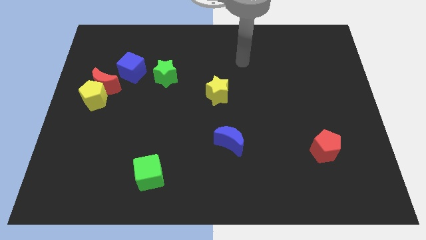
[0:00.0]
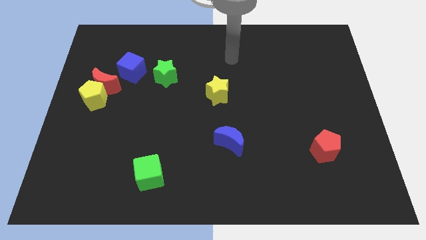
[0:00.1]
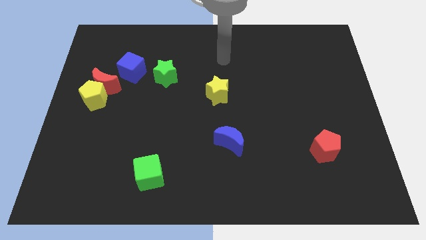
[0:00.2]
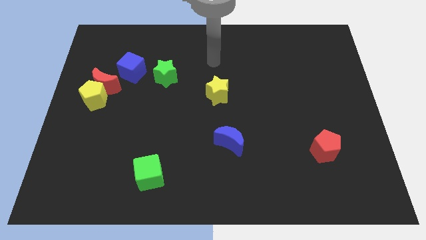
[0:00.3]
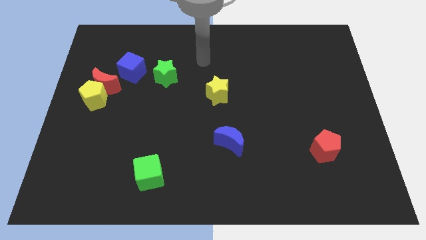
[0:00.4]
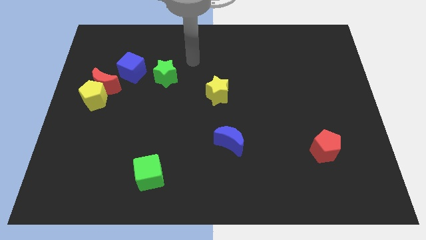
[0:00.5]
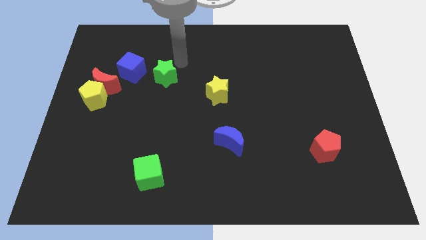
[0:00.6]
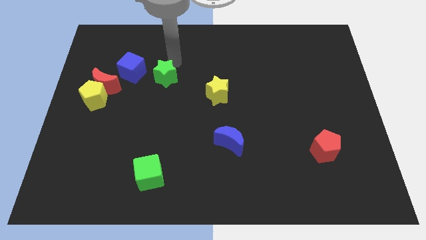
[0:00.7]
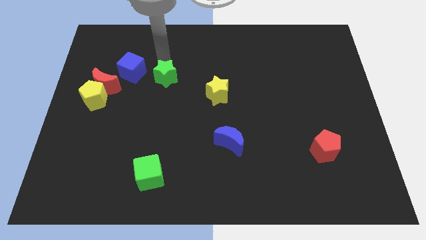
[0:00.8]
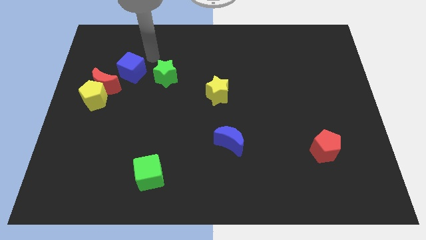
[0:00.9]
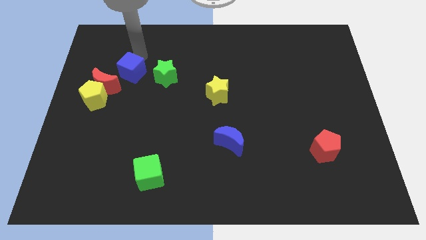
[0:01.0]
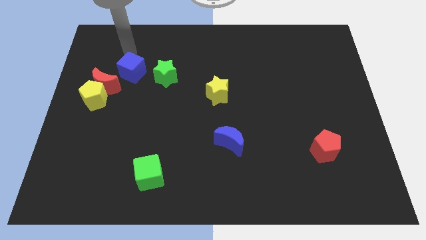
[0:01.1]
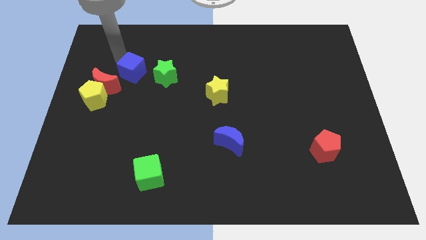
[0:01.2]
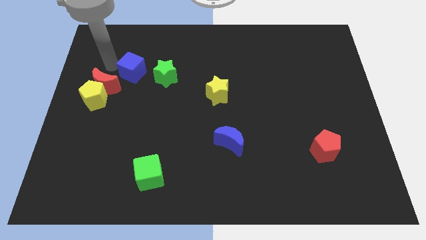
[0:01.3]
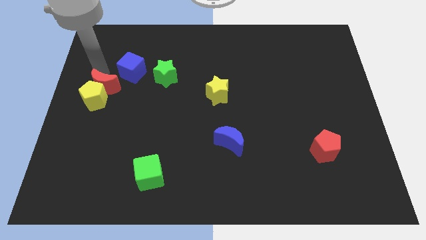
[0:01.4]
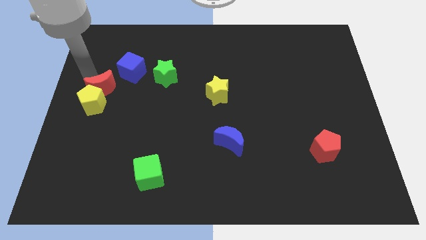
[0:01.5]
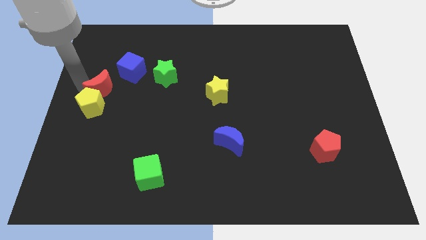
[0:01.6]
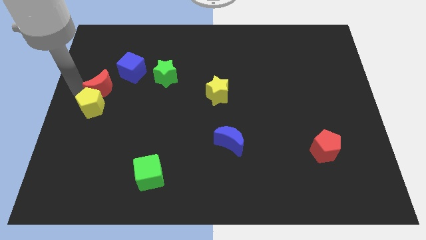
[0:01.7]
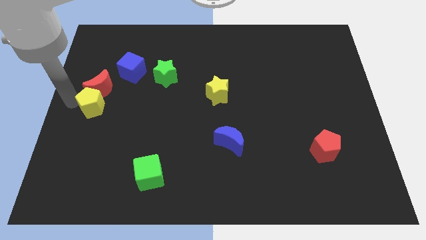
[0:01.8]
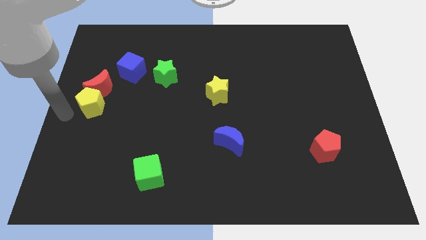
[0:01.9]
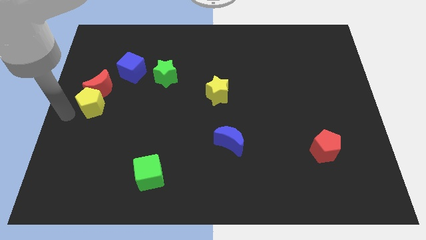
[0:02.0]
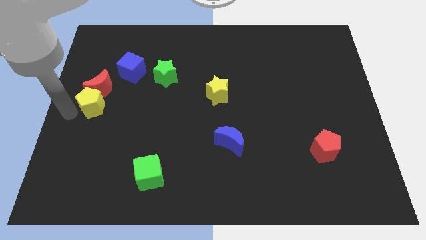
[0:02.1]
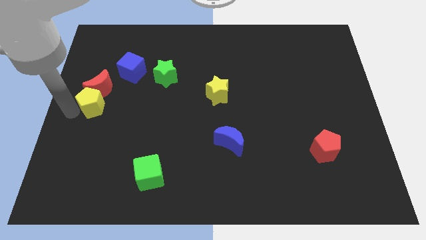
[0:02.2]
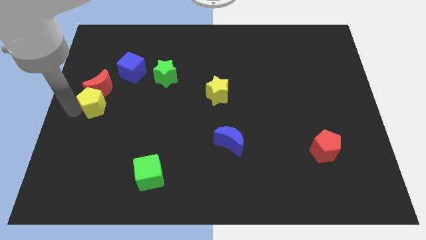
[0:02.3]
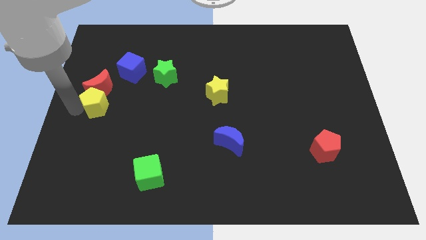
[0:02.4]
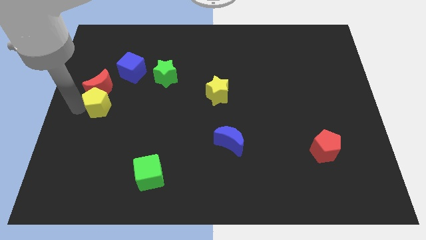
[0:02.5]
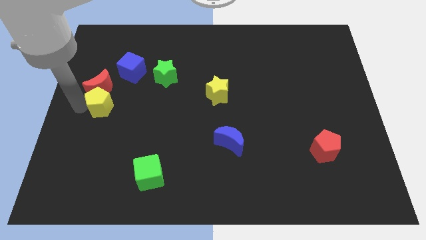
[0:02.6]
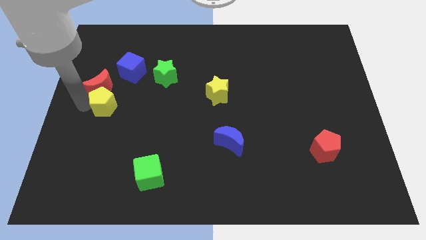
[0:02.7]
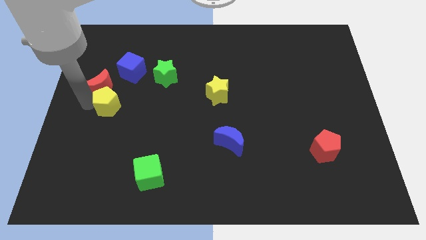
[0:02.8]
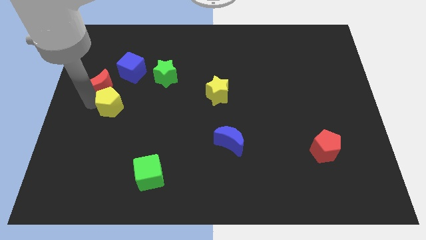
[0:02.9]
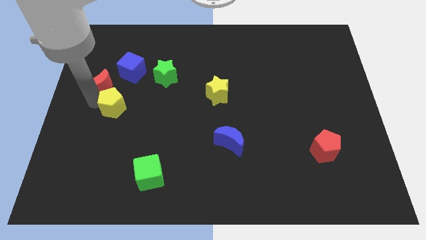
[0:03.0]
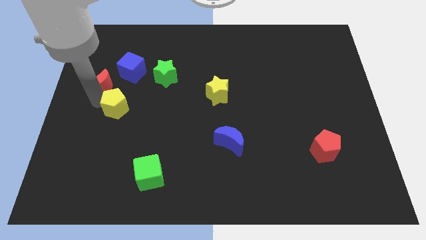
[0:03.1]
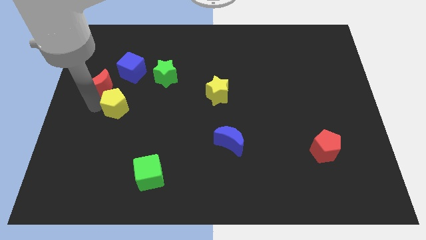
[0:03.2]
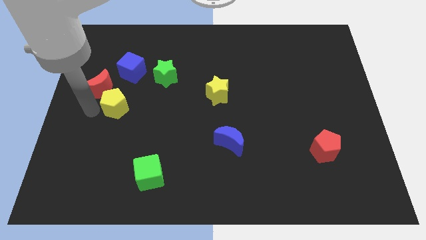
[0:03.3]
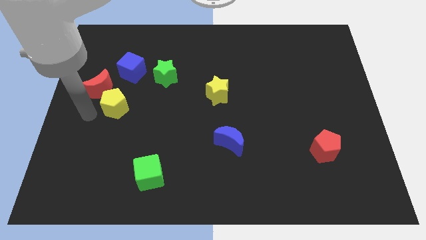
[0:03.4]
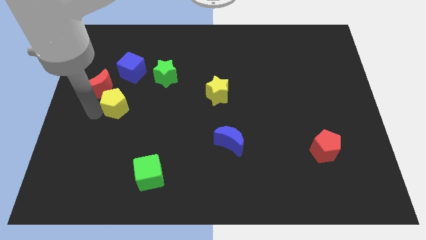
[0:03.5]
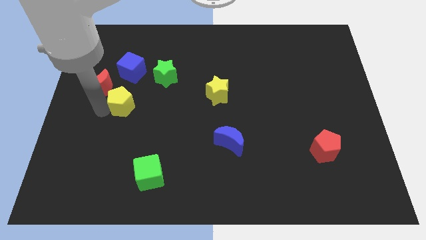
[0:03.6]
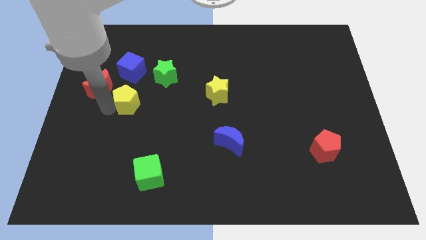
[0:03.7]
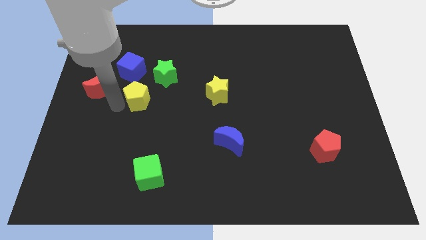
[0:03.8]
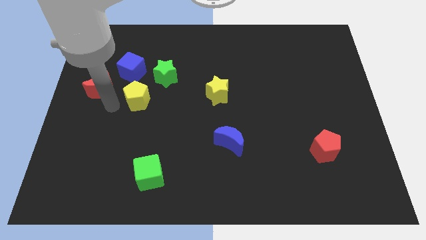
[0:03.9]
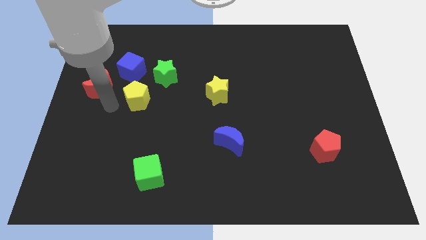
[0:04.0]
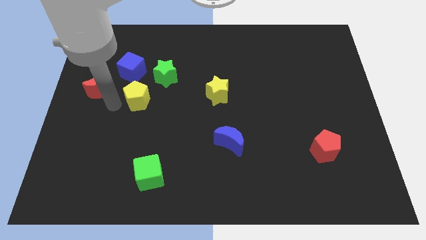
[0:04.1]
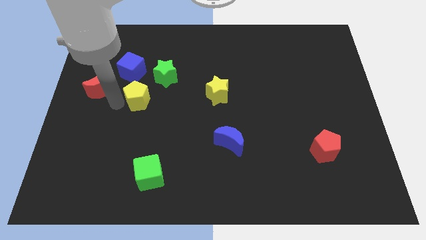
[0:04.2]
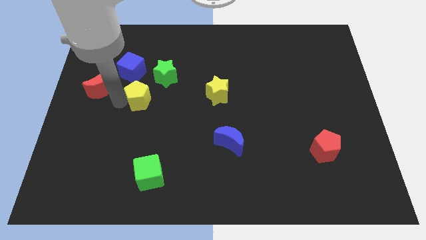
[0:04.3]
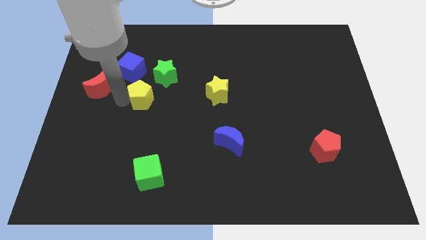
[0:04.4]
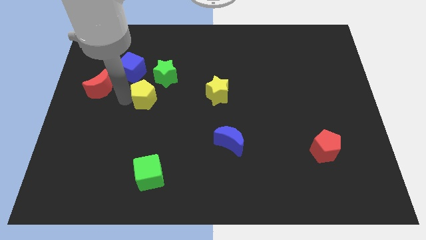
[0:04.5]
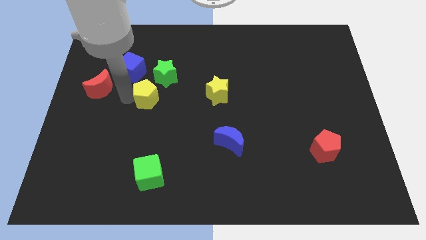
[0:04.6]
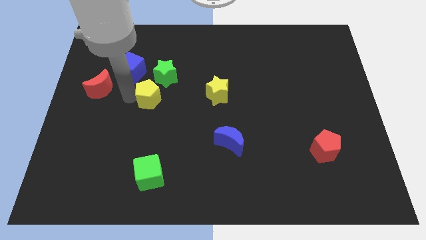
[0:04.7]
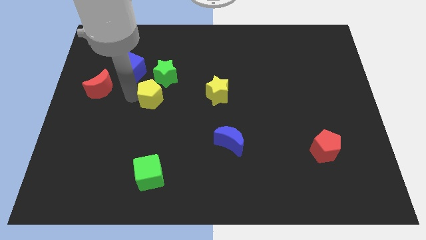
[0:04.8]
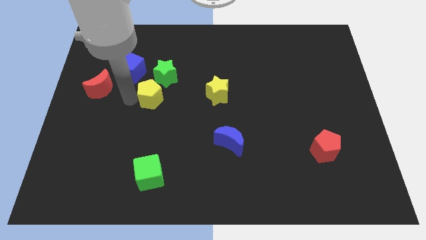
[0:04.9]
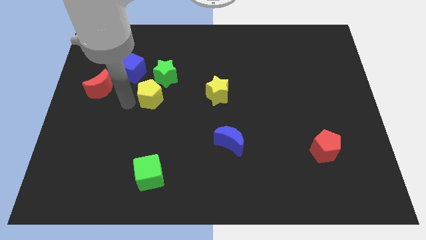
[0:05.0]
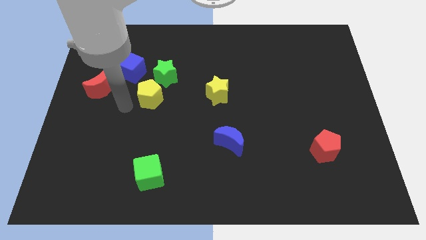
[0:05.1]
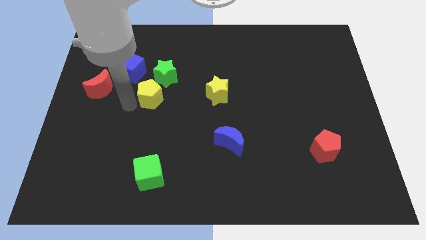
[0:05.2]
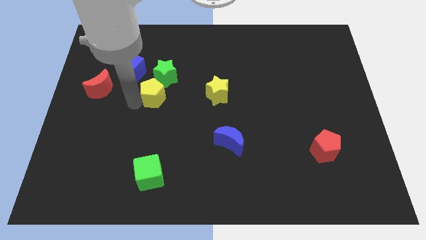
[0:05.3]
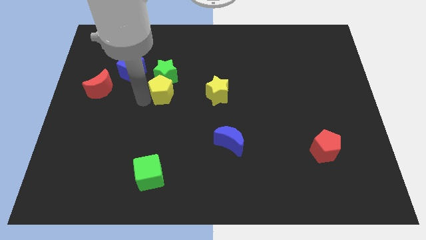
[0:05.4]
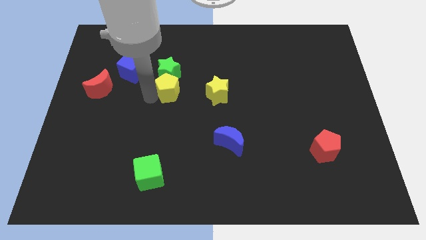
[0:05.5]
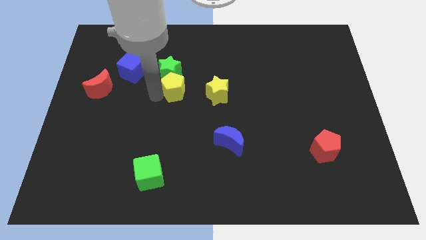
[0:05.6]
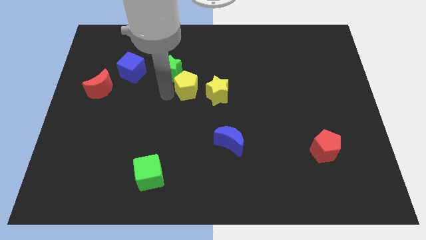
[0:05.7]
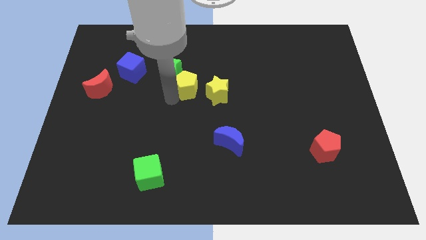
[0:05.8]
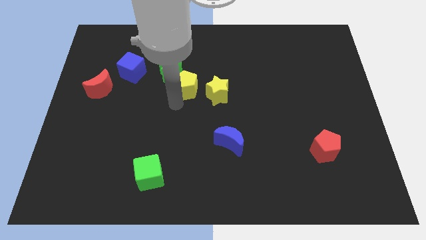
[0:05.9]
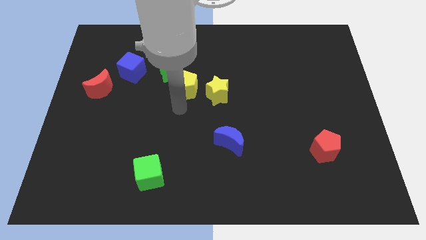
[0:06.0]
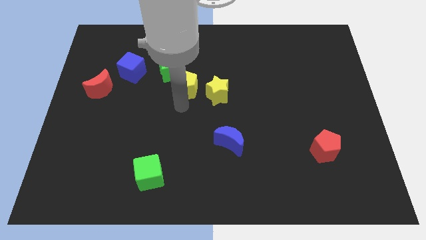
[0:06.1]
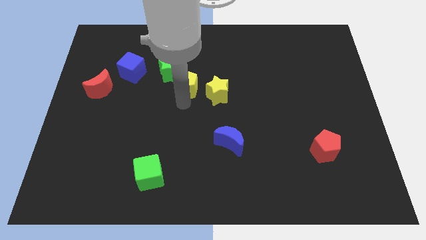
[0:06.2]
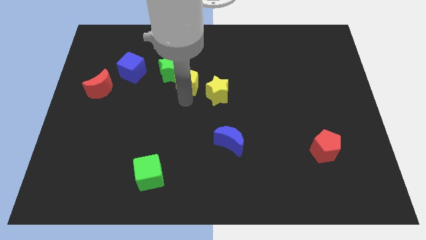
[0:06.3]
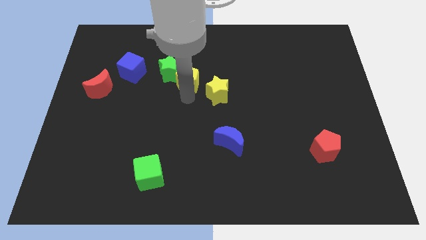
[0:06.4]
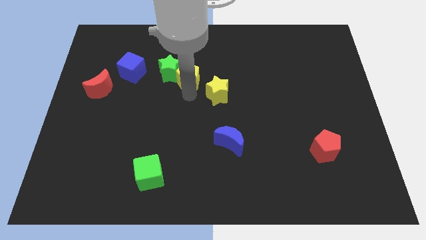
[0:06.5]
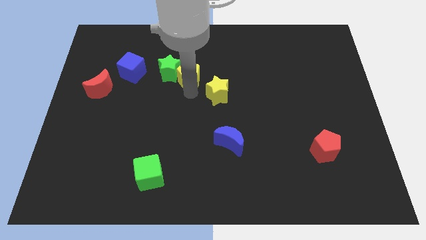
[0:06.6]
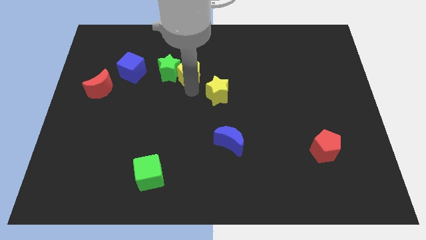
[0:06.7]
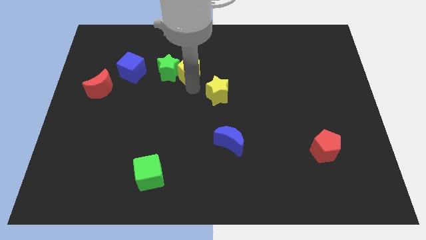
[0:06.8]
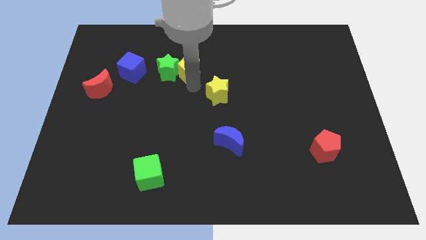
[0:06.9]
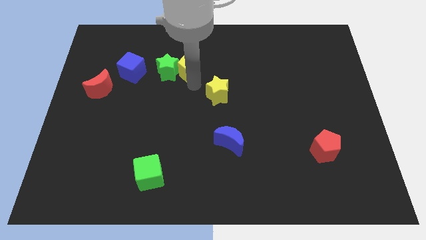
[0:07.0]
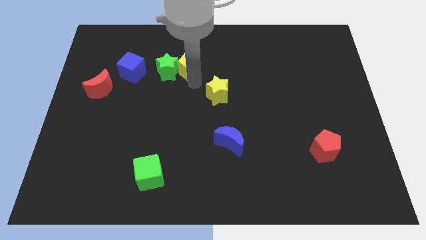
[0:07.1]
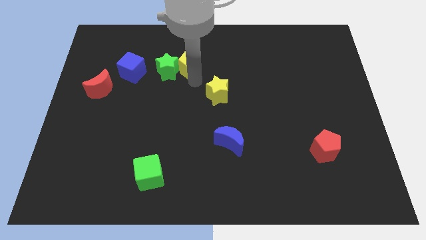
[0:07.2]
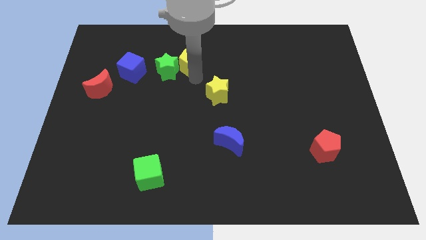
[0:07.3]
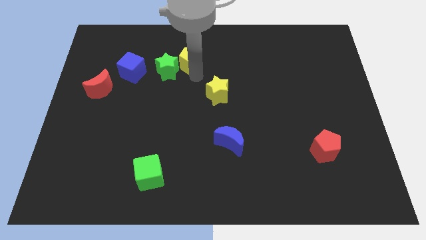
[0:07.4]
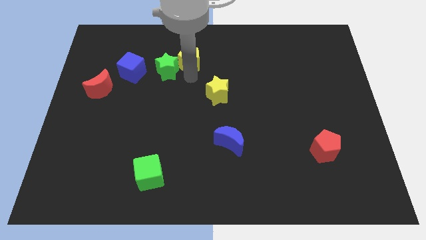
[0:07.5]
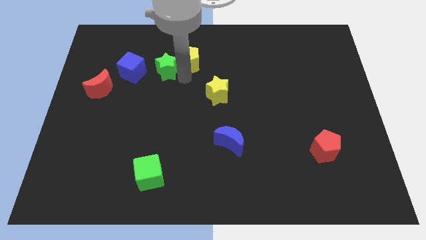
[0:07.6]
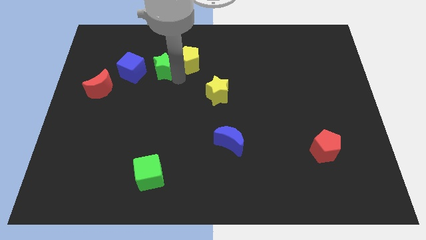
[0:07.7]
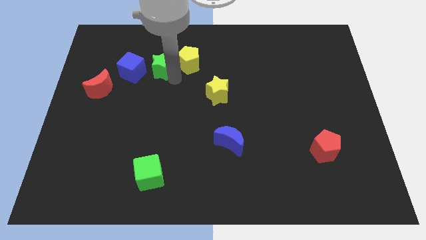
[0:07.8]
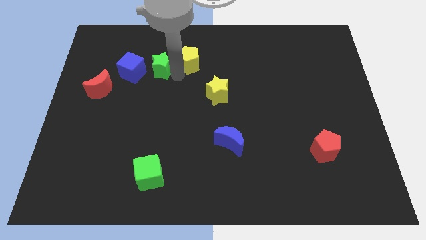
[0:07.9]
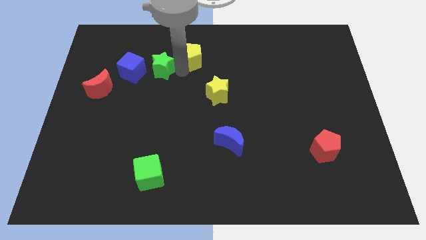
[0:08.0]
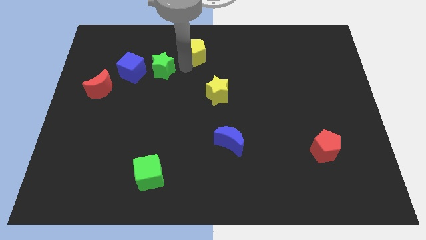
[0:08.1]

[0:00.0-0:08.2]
move the yellow pentagon to the top
